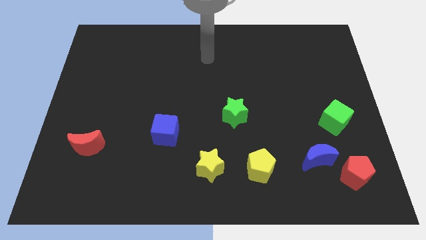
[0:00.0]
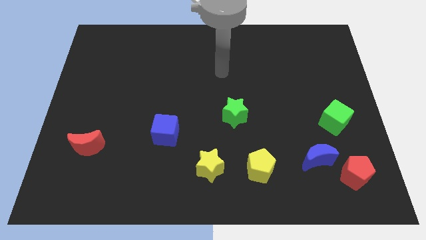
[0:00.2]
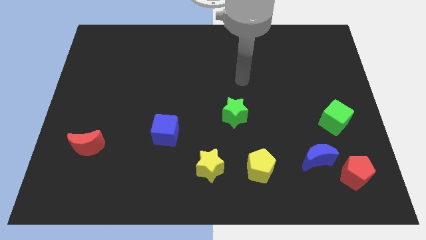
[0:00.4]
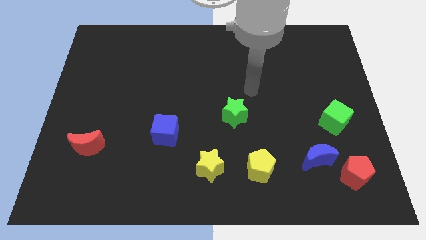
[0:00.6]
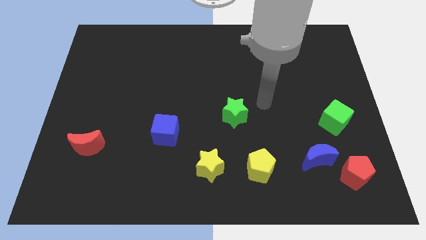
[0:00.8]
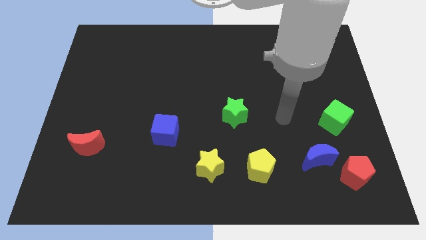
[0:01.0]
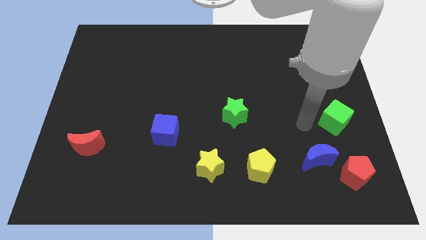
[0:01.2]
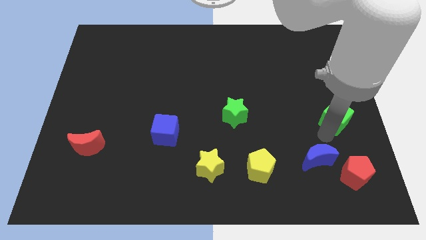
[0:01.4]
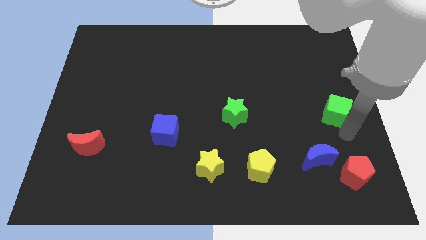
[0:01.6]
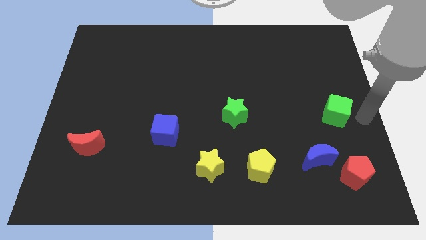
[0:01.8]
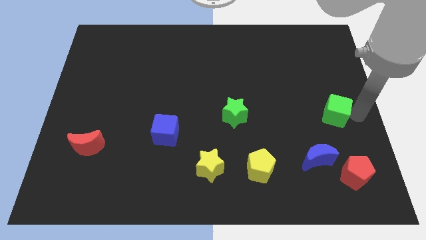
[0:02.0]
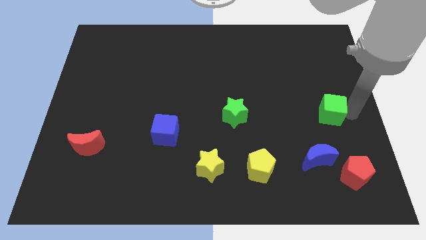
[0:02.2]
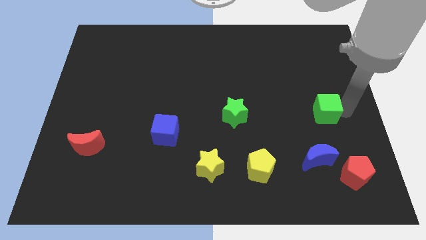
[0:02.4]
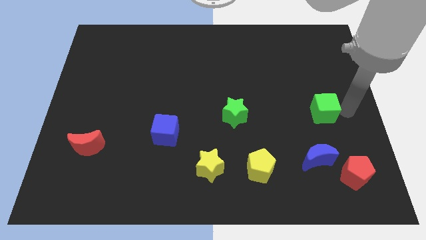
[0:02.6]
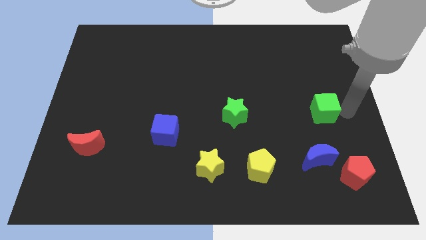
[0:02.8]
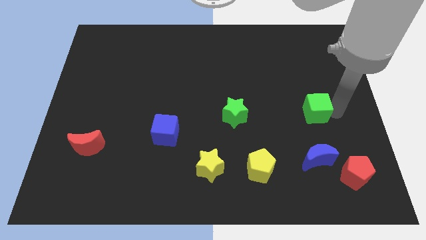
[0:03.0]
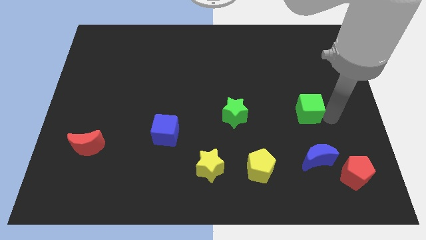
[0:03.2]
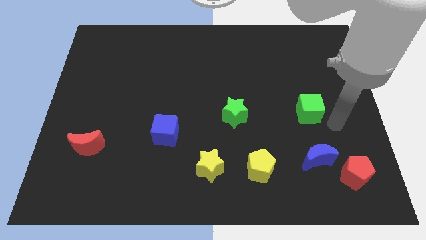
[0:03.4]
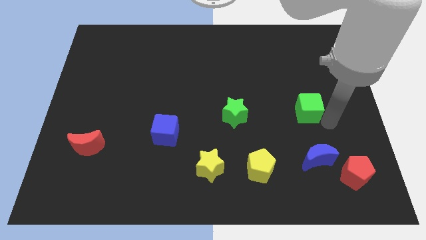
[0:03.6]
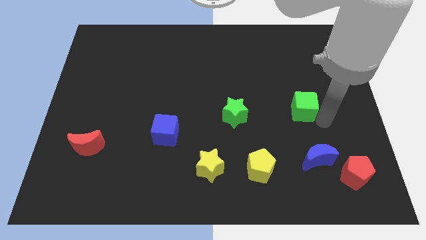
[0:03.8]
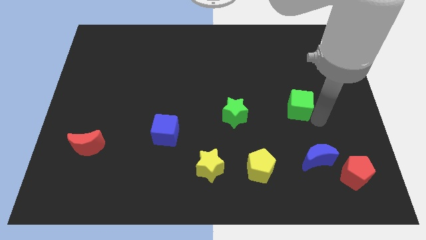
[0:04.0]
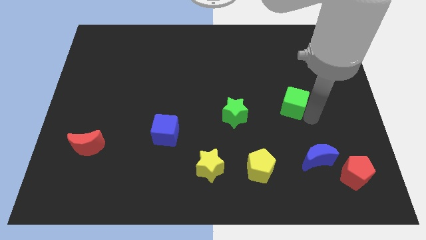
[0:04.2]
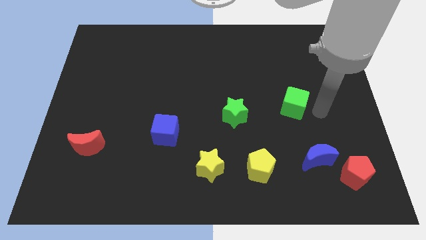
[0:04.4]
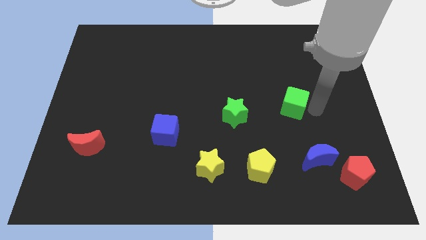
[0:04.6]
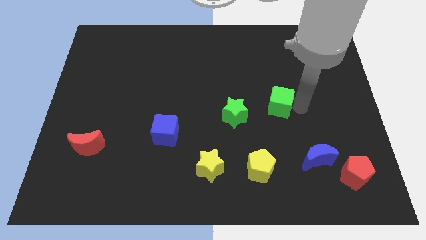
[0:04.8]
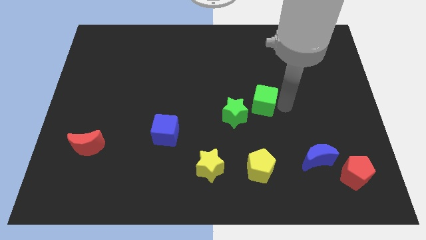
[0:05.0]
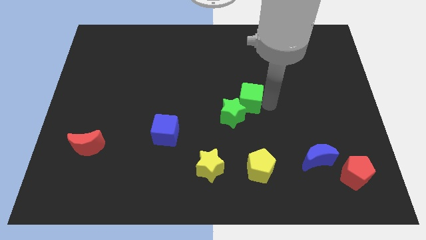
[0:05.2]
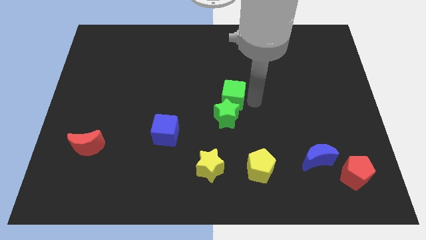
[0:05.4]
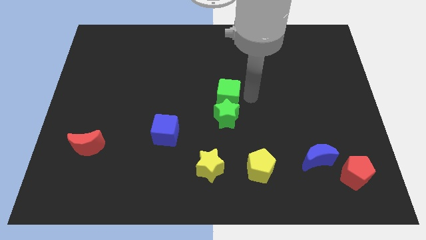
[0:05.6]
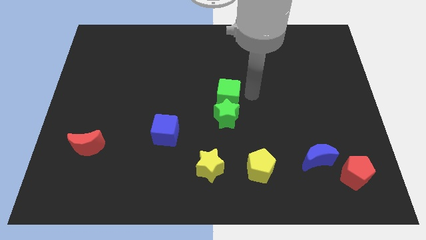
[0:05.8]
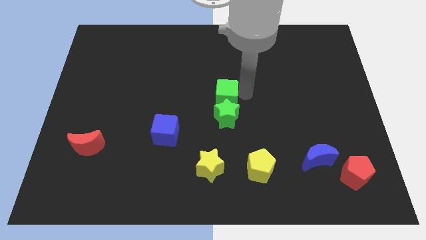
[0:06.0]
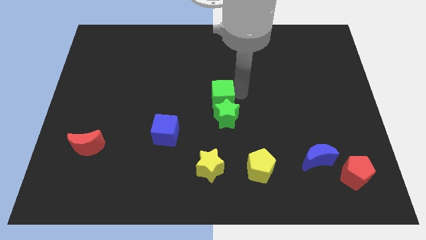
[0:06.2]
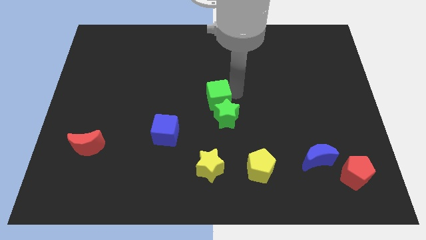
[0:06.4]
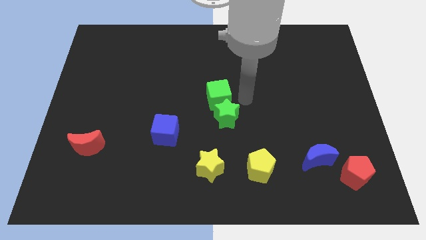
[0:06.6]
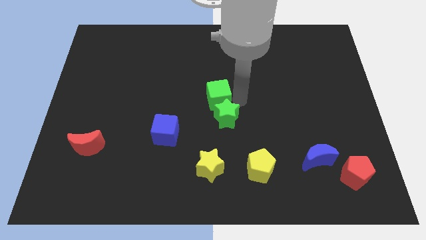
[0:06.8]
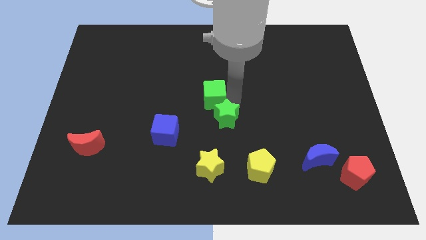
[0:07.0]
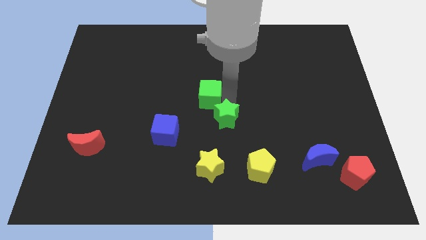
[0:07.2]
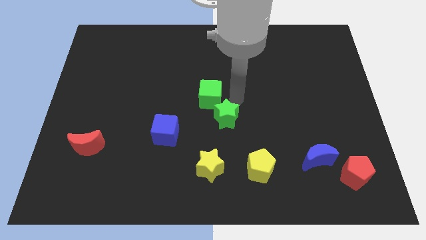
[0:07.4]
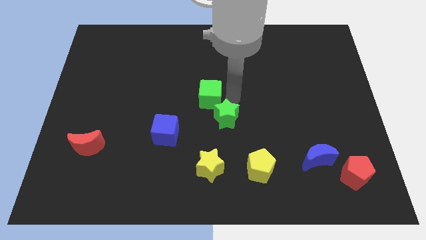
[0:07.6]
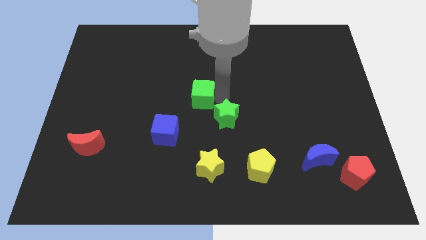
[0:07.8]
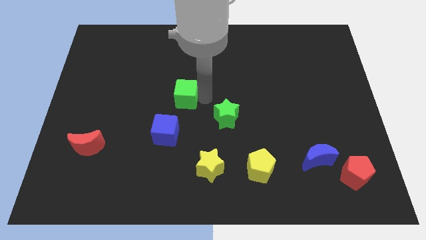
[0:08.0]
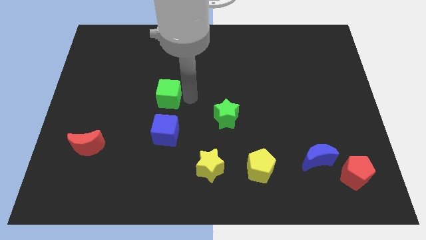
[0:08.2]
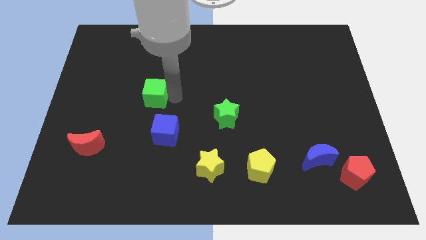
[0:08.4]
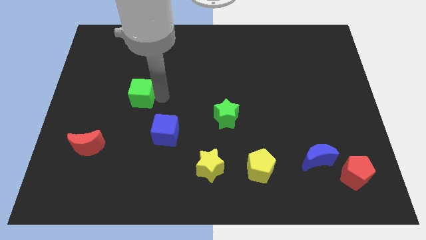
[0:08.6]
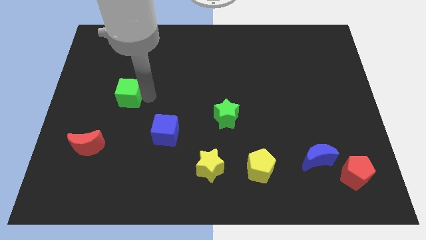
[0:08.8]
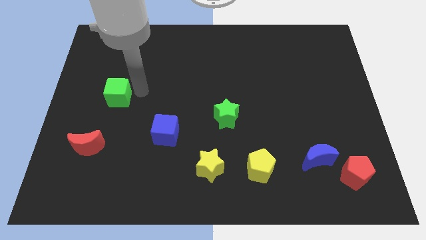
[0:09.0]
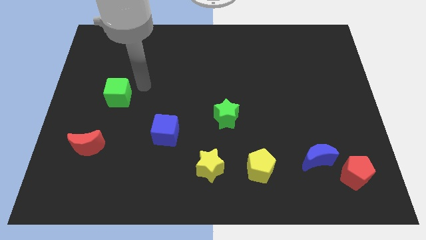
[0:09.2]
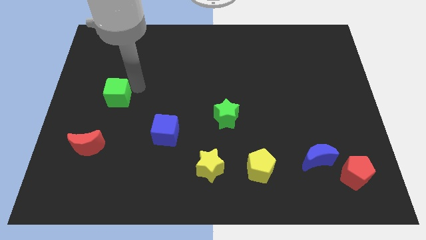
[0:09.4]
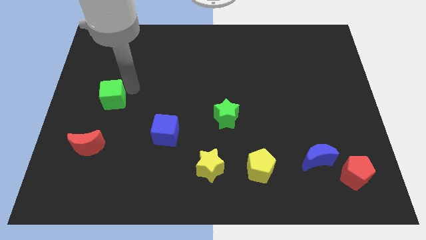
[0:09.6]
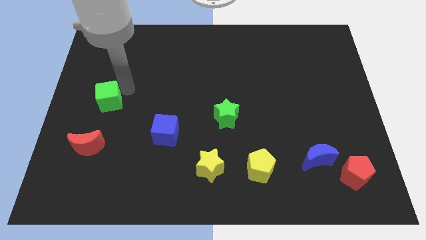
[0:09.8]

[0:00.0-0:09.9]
push the green cube to the left side

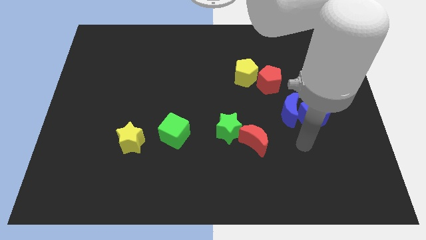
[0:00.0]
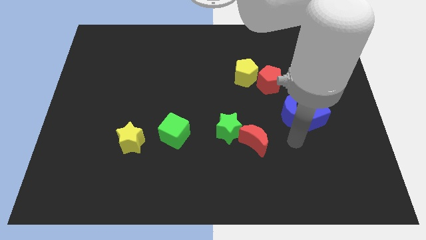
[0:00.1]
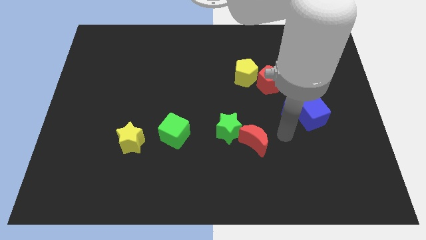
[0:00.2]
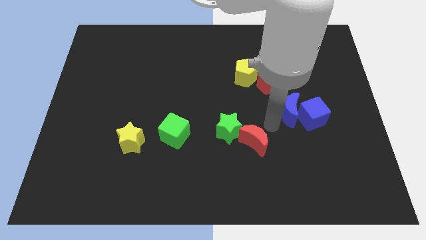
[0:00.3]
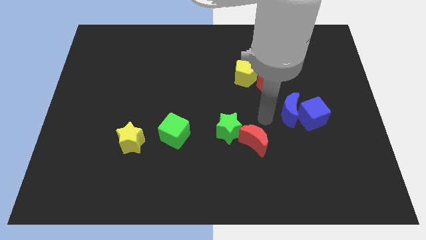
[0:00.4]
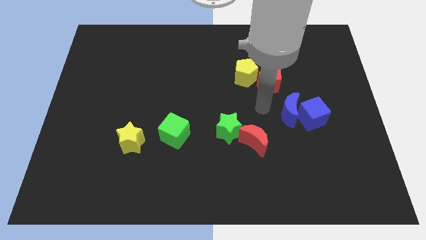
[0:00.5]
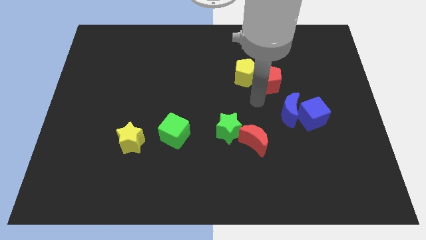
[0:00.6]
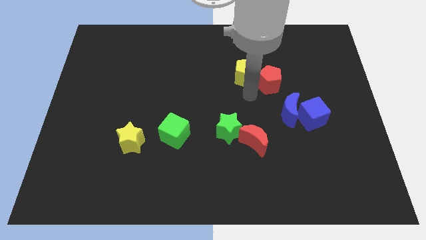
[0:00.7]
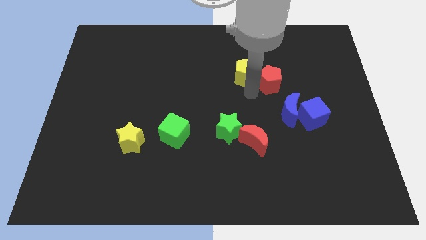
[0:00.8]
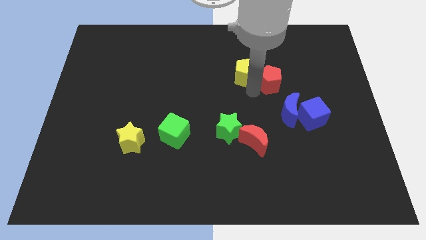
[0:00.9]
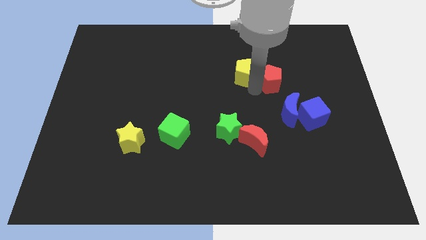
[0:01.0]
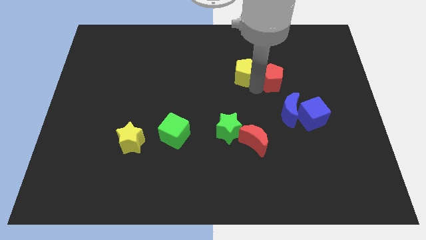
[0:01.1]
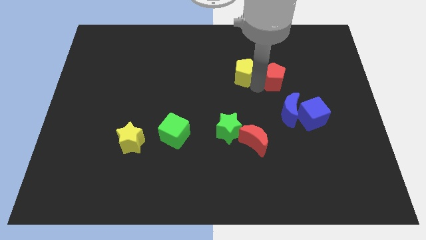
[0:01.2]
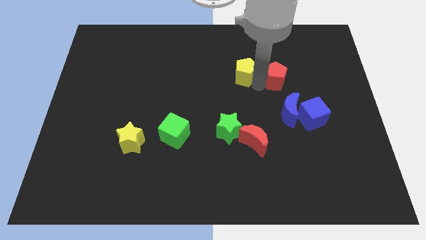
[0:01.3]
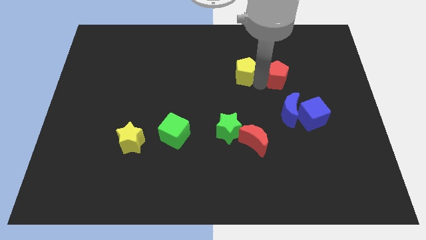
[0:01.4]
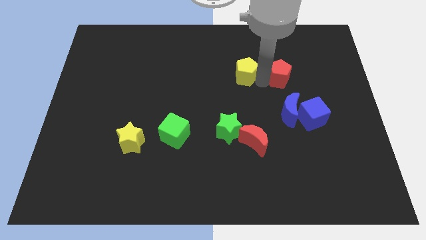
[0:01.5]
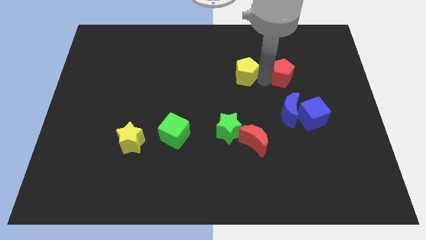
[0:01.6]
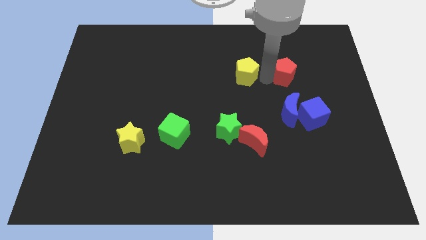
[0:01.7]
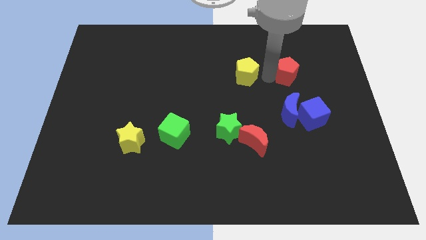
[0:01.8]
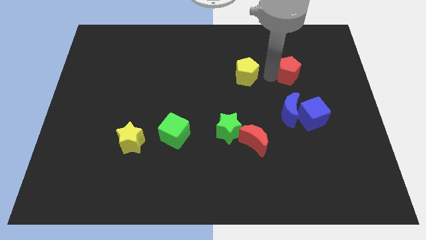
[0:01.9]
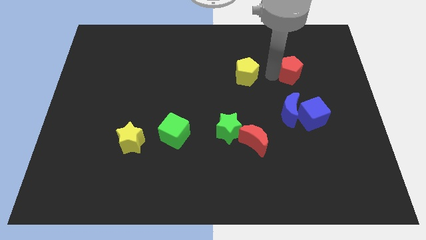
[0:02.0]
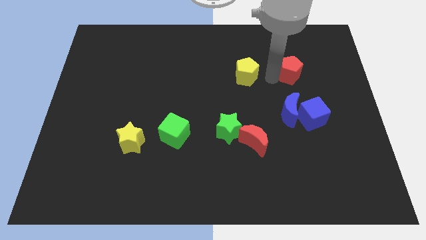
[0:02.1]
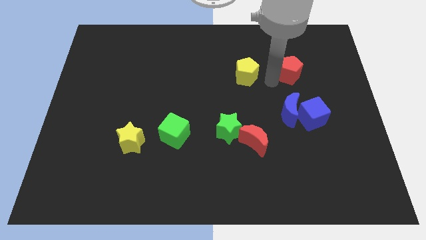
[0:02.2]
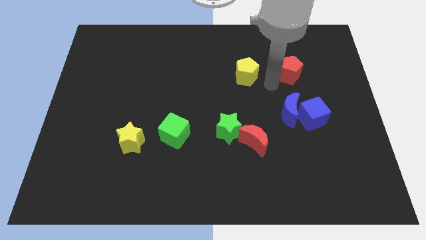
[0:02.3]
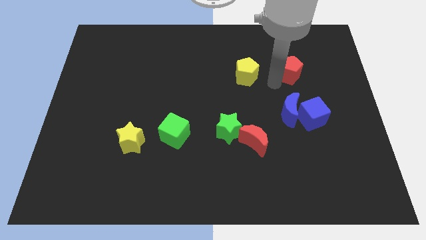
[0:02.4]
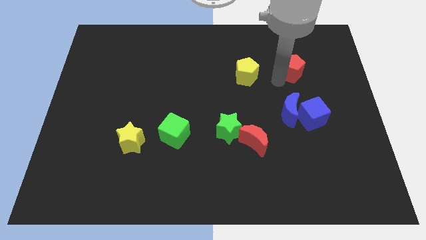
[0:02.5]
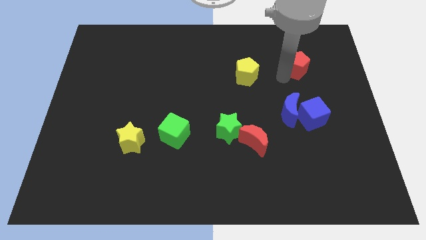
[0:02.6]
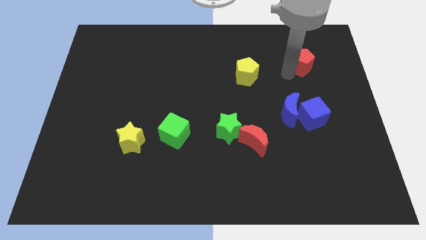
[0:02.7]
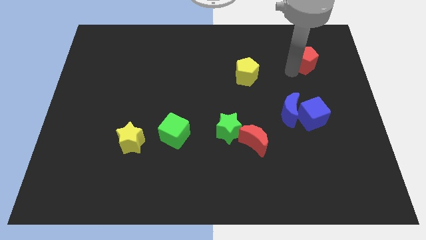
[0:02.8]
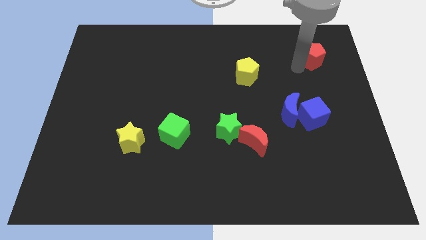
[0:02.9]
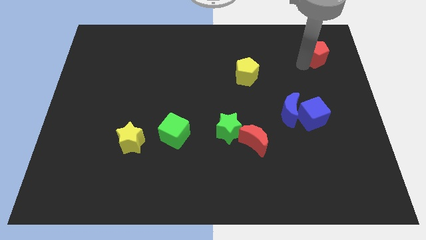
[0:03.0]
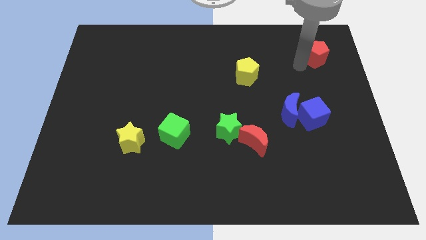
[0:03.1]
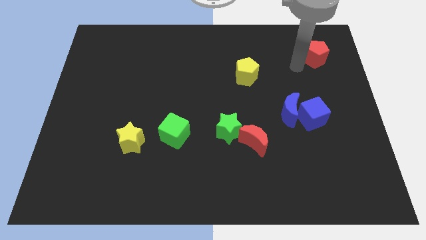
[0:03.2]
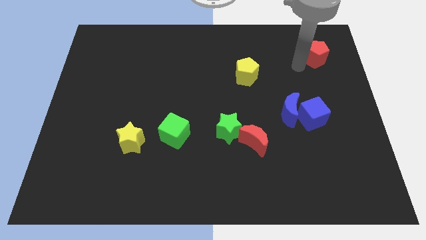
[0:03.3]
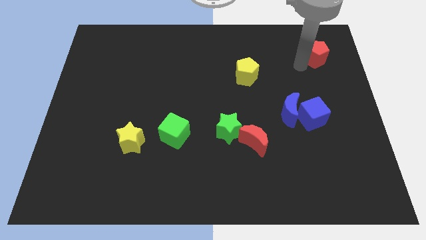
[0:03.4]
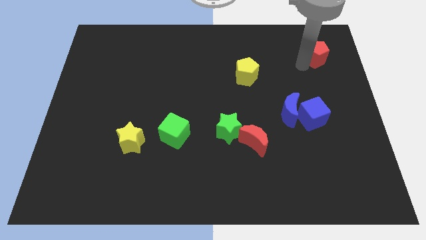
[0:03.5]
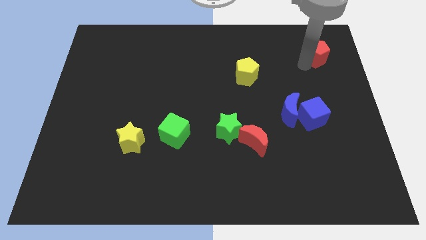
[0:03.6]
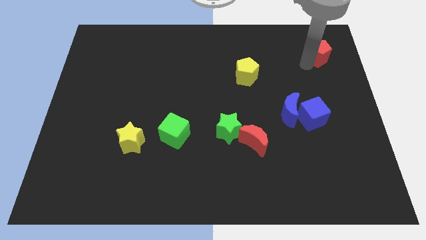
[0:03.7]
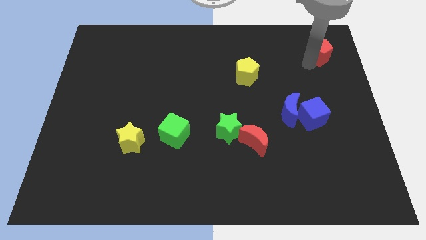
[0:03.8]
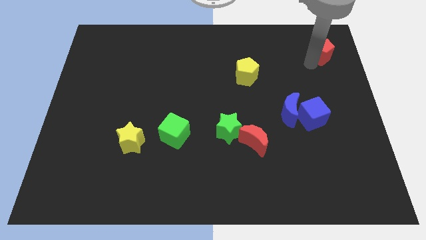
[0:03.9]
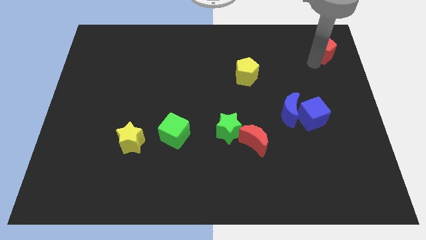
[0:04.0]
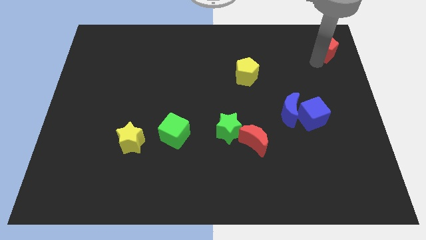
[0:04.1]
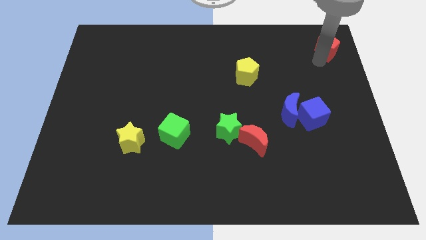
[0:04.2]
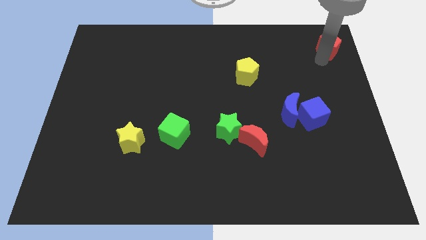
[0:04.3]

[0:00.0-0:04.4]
push the red pentagon to the top right
